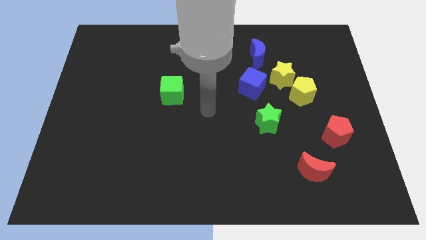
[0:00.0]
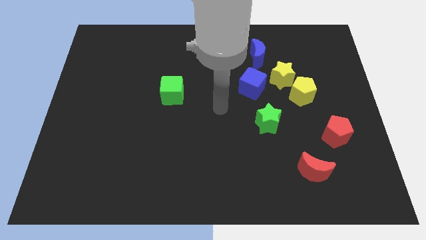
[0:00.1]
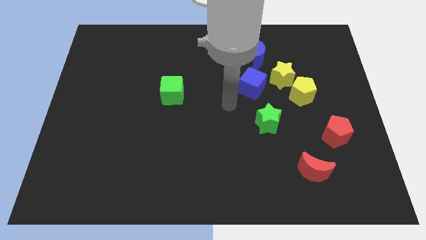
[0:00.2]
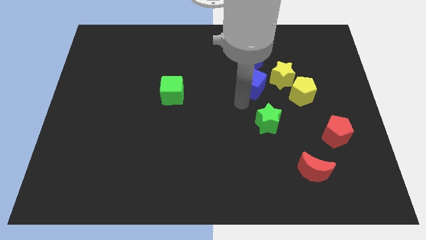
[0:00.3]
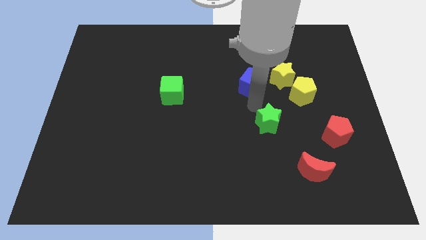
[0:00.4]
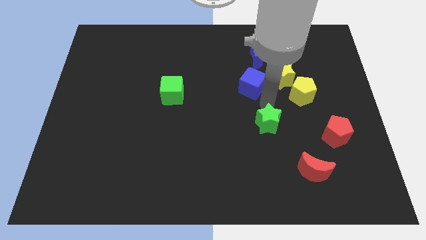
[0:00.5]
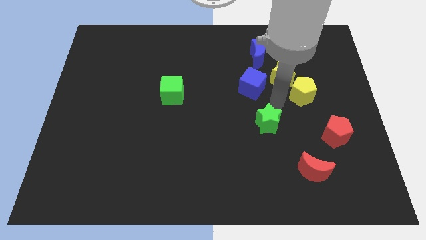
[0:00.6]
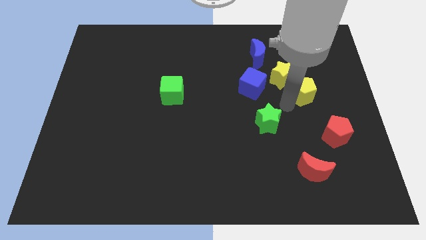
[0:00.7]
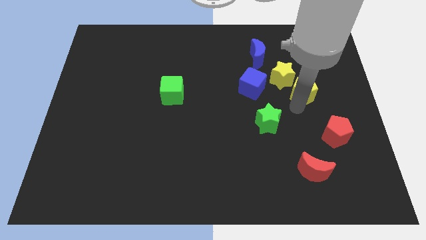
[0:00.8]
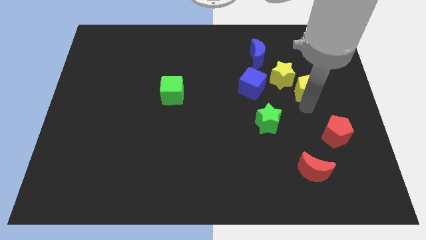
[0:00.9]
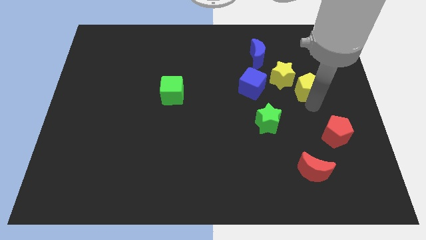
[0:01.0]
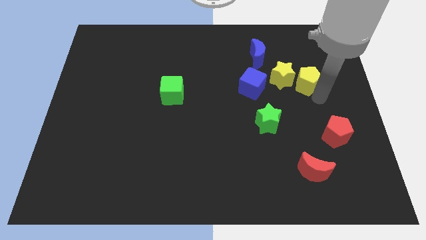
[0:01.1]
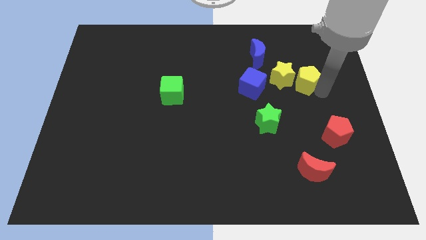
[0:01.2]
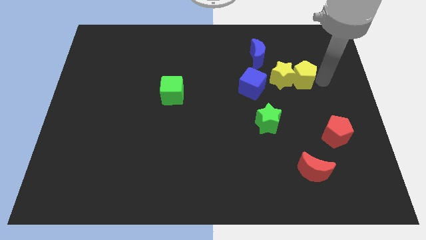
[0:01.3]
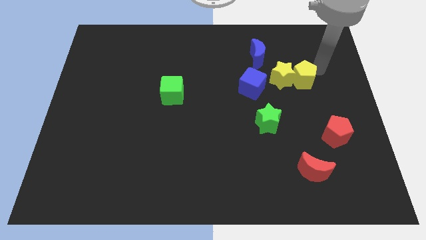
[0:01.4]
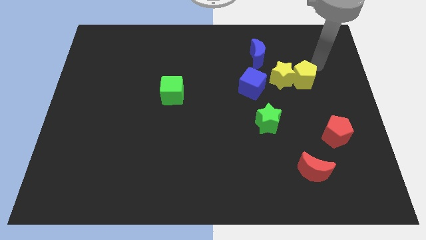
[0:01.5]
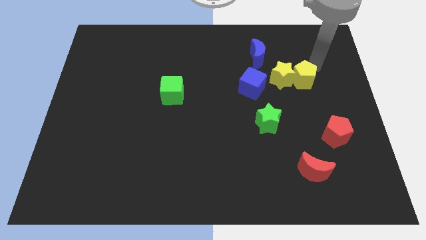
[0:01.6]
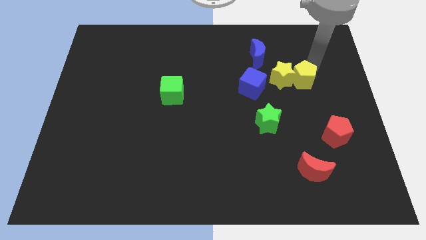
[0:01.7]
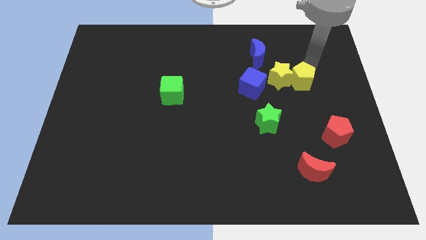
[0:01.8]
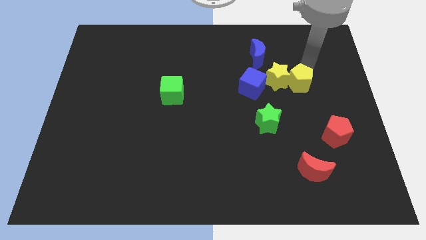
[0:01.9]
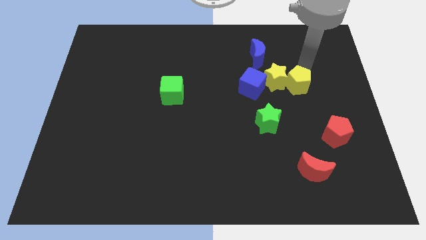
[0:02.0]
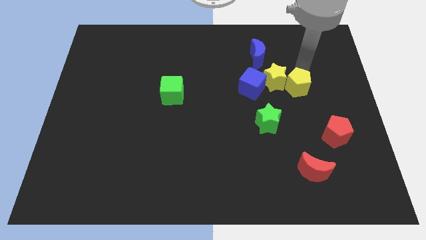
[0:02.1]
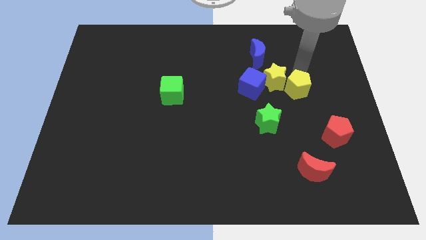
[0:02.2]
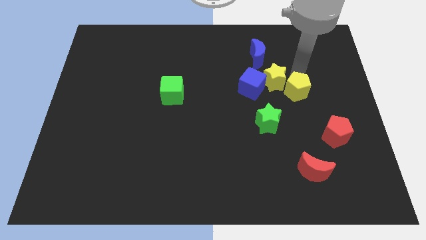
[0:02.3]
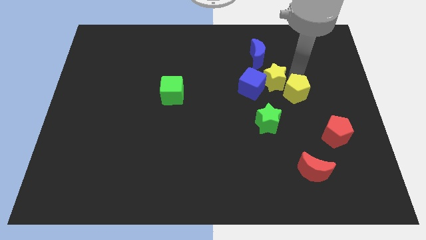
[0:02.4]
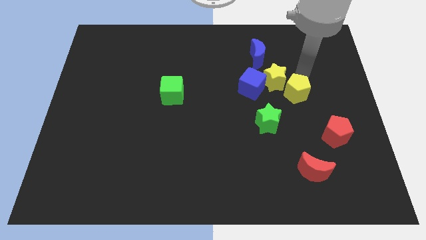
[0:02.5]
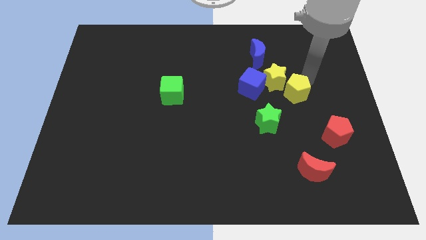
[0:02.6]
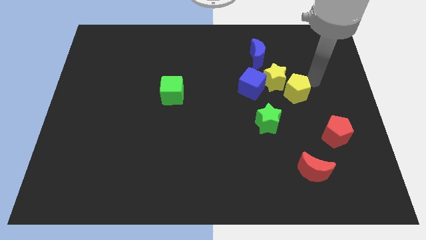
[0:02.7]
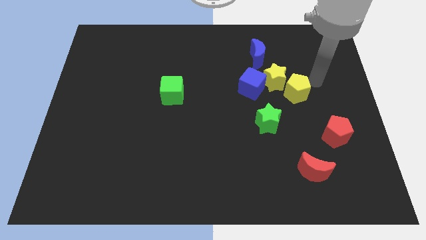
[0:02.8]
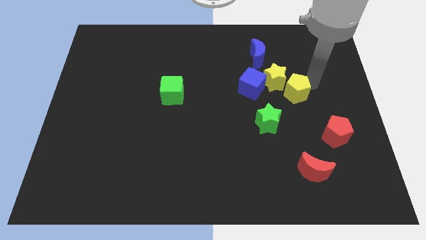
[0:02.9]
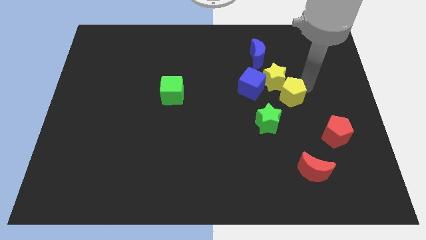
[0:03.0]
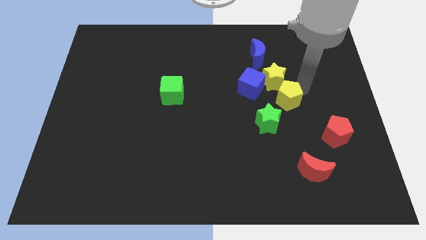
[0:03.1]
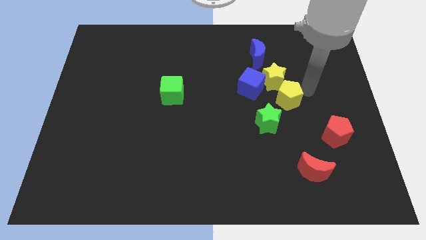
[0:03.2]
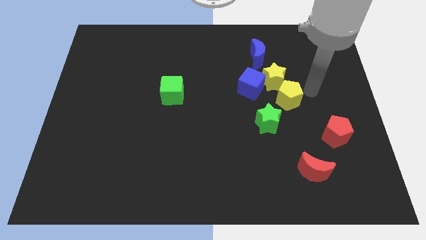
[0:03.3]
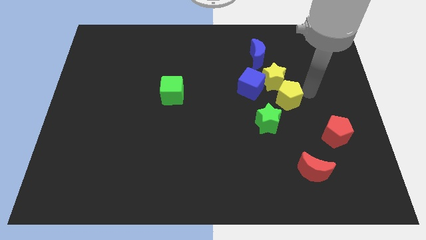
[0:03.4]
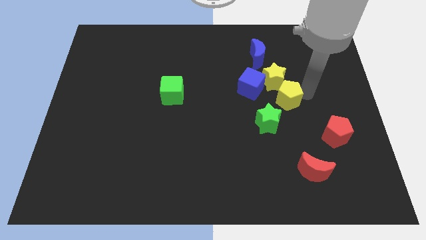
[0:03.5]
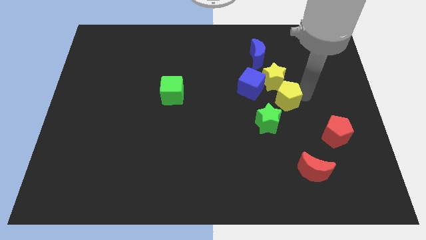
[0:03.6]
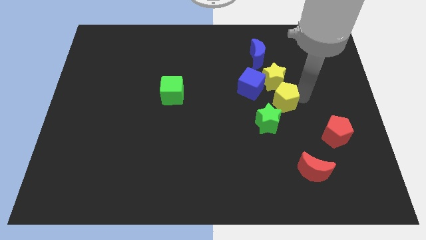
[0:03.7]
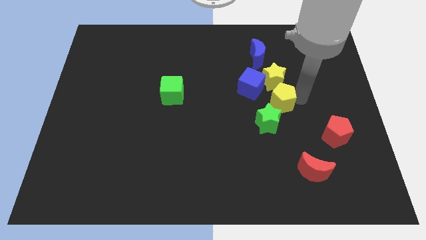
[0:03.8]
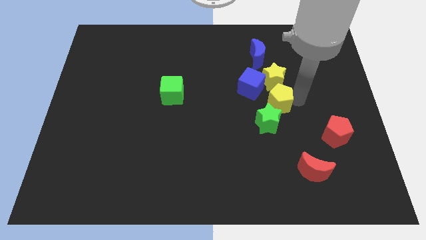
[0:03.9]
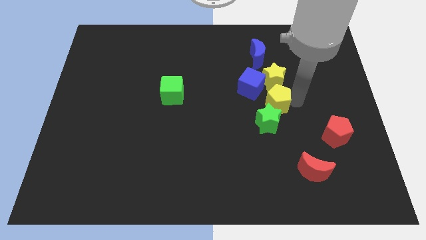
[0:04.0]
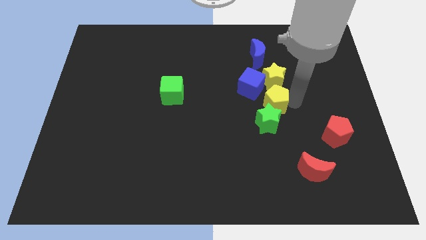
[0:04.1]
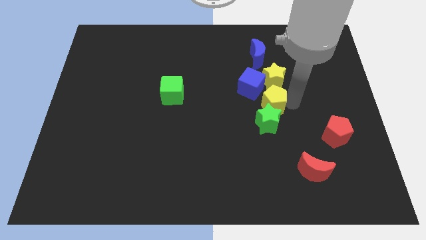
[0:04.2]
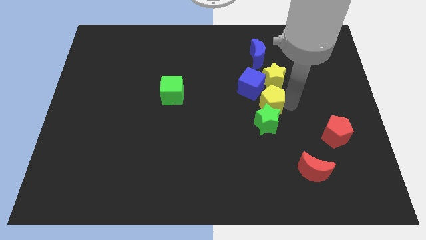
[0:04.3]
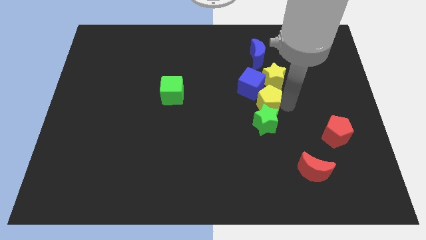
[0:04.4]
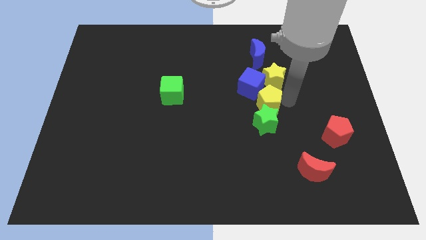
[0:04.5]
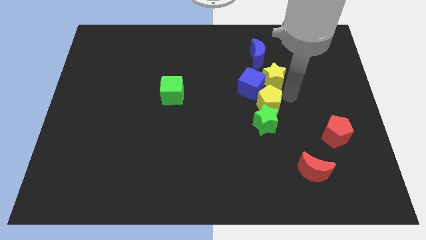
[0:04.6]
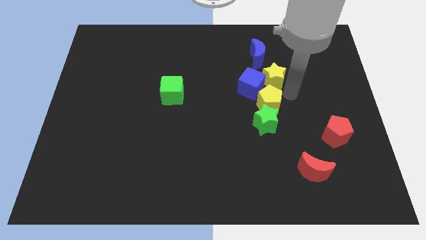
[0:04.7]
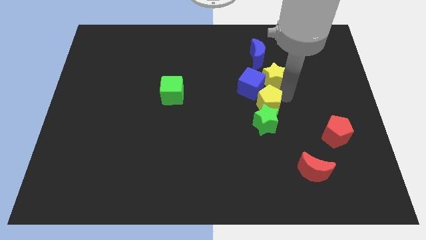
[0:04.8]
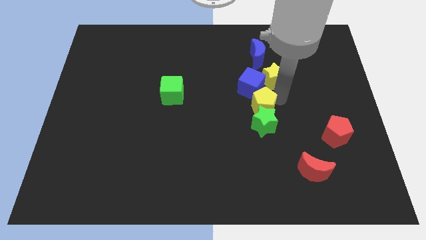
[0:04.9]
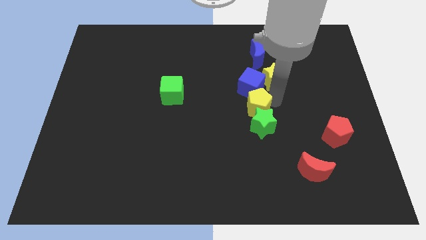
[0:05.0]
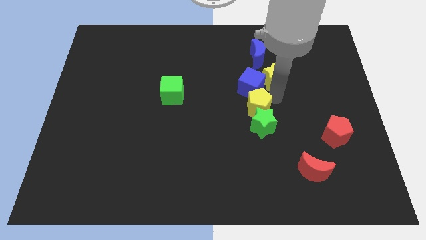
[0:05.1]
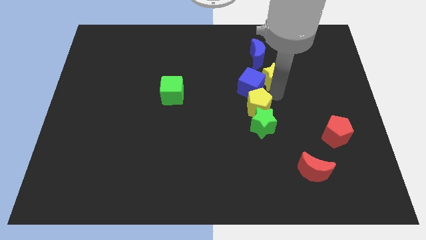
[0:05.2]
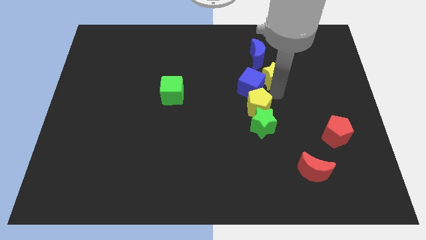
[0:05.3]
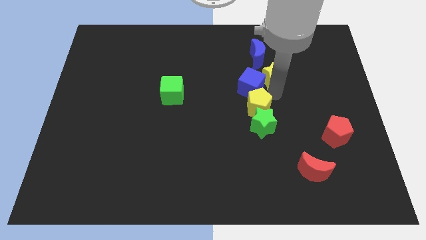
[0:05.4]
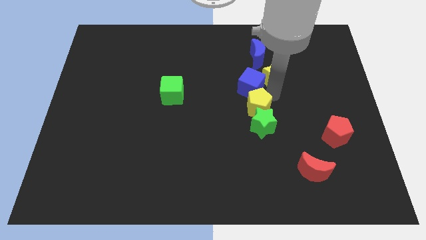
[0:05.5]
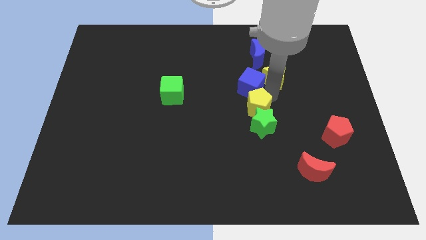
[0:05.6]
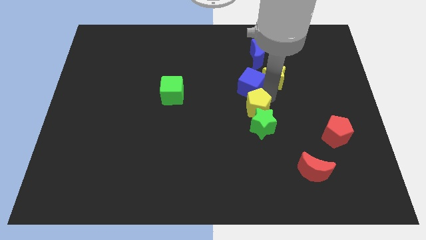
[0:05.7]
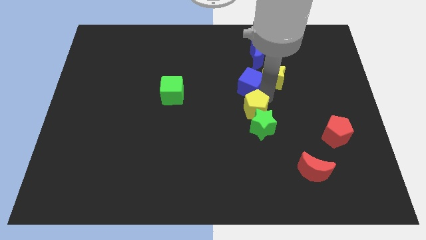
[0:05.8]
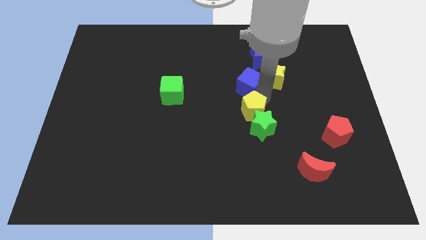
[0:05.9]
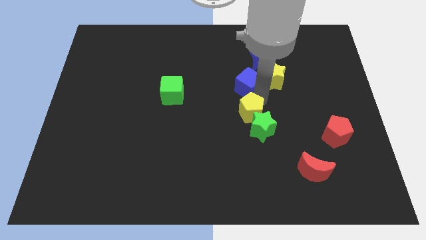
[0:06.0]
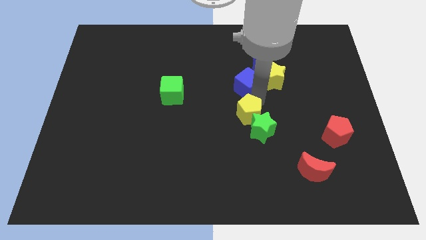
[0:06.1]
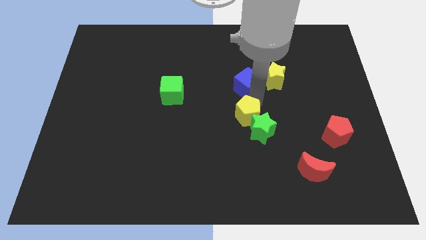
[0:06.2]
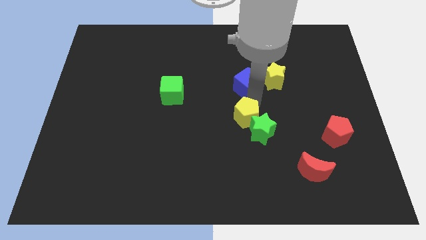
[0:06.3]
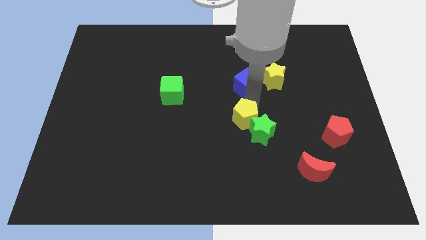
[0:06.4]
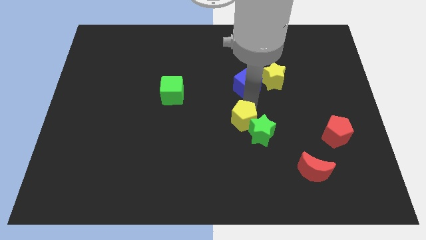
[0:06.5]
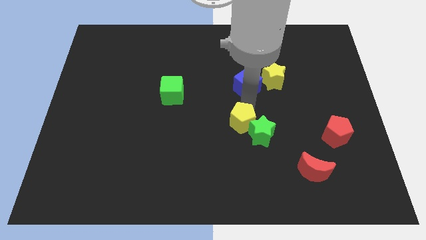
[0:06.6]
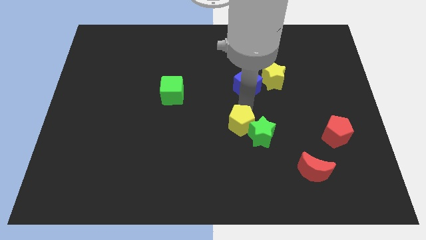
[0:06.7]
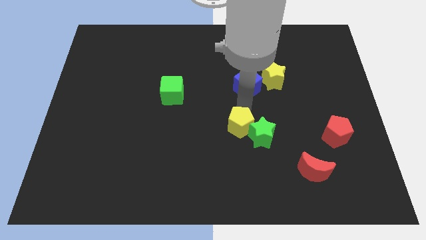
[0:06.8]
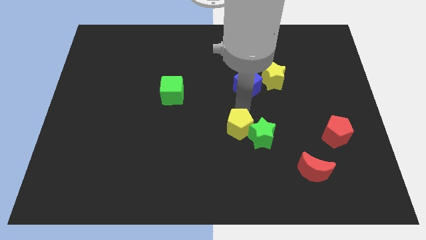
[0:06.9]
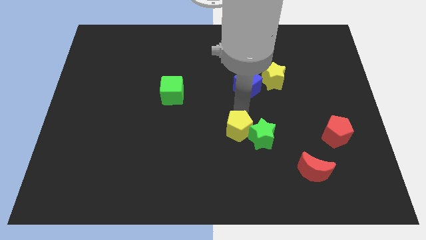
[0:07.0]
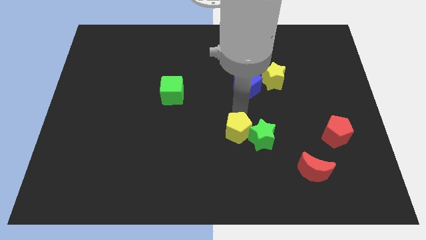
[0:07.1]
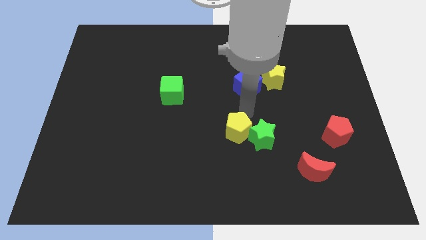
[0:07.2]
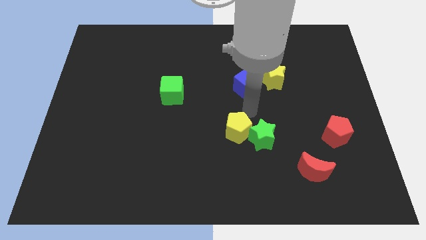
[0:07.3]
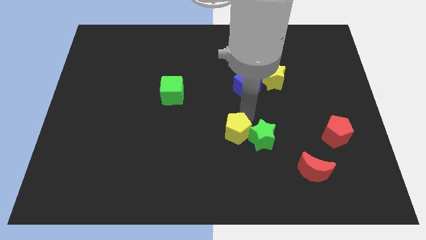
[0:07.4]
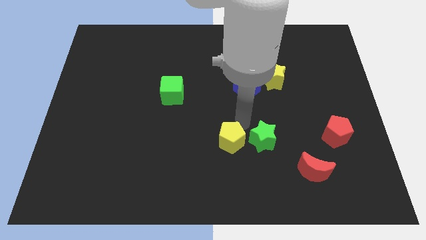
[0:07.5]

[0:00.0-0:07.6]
move the yellow pentagon down and then left

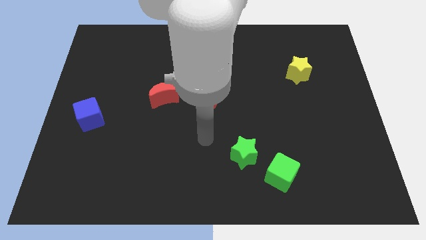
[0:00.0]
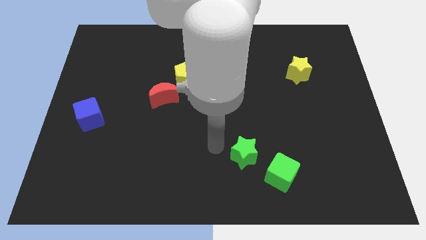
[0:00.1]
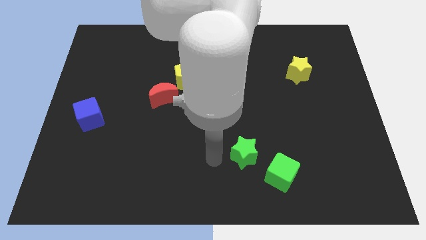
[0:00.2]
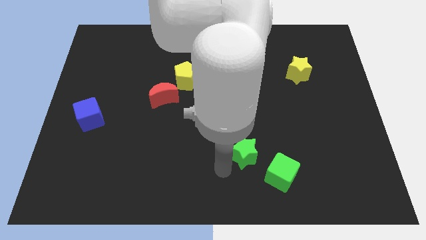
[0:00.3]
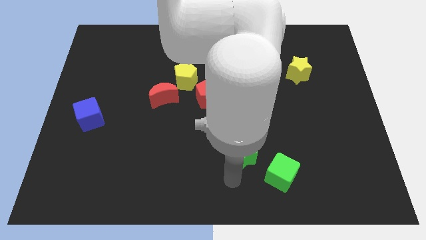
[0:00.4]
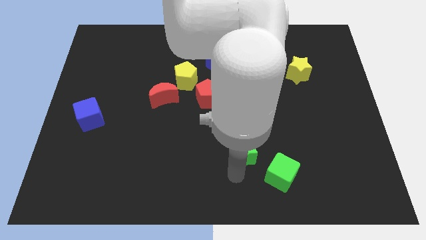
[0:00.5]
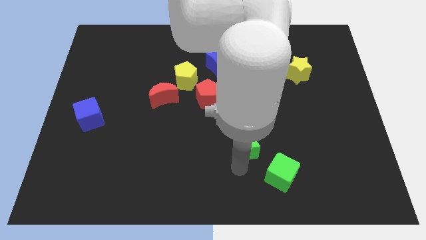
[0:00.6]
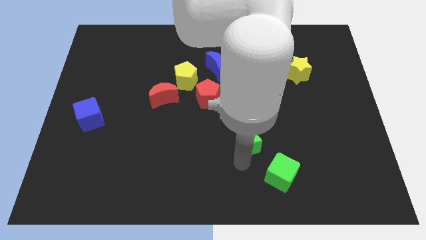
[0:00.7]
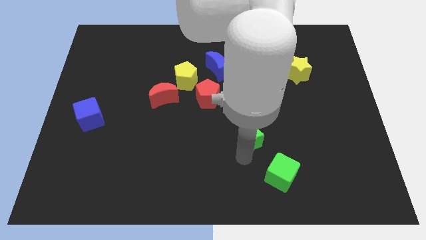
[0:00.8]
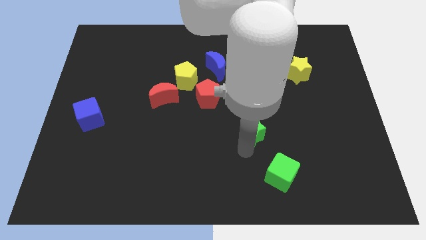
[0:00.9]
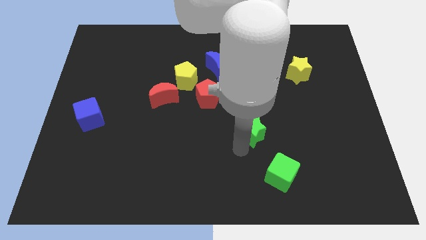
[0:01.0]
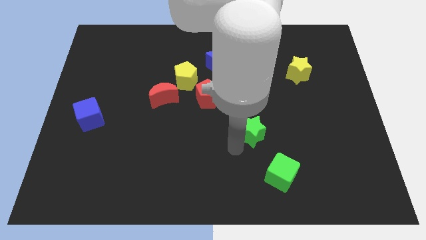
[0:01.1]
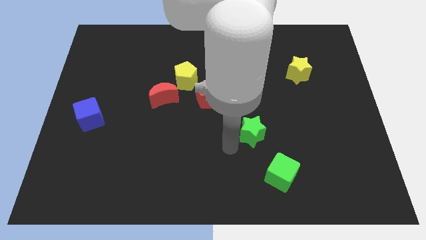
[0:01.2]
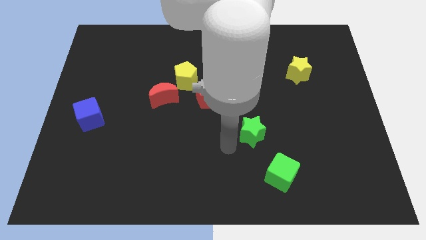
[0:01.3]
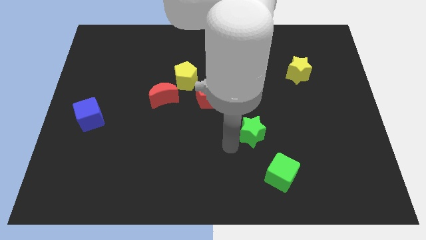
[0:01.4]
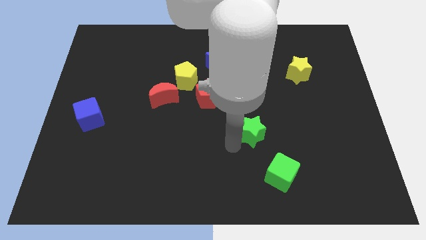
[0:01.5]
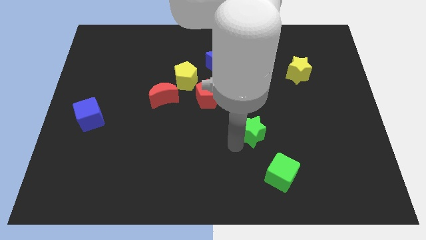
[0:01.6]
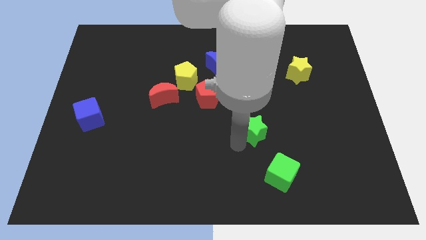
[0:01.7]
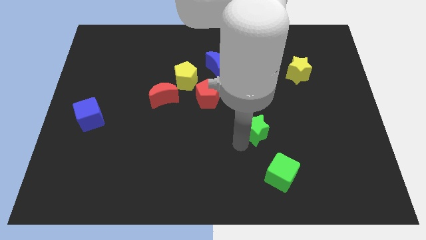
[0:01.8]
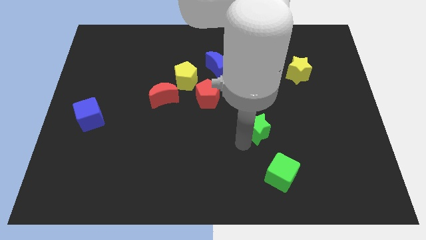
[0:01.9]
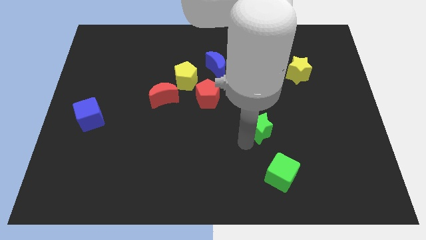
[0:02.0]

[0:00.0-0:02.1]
slide the green star upwards and right a little
